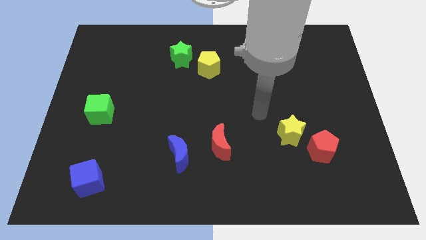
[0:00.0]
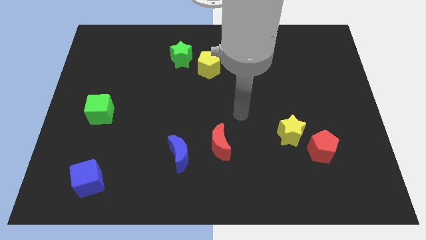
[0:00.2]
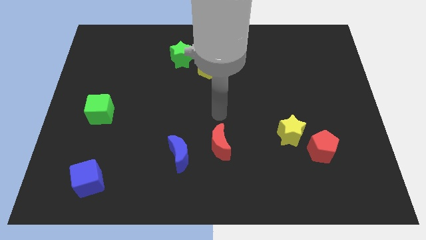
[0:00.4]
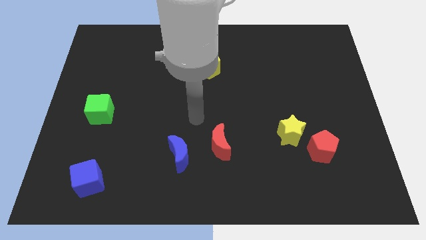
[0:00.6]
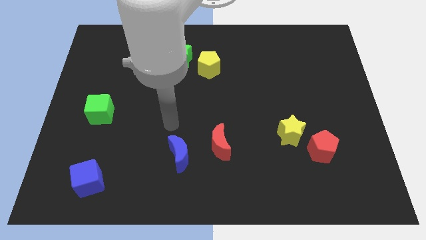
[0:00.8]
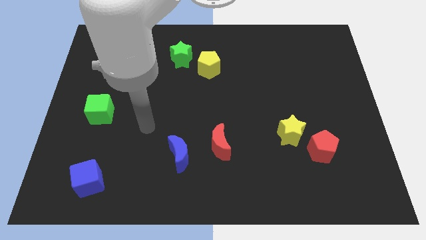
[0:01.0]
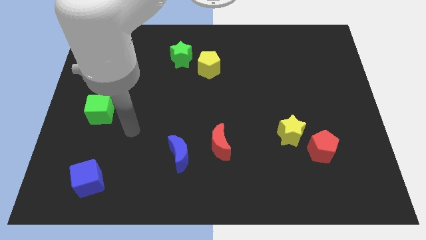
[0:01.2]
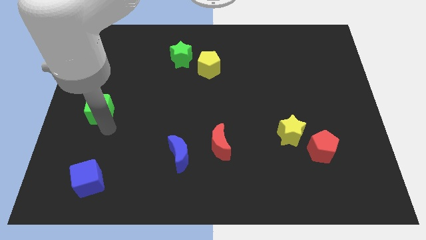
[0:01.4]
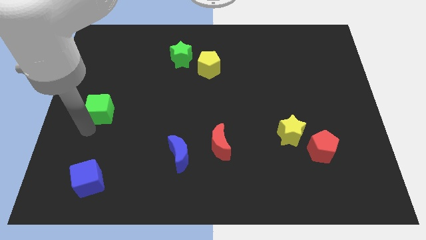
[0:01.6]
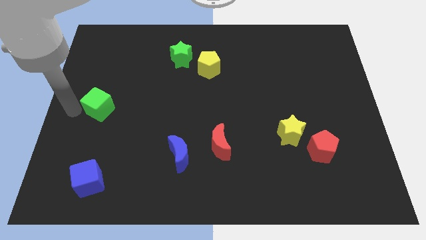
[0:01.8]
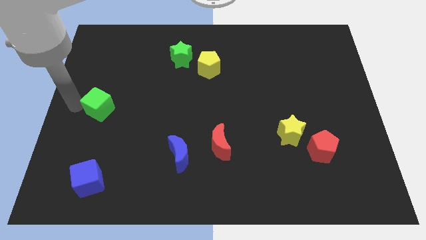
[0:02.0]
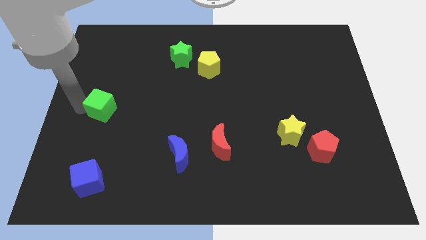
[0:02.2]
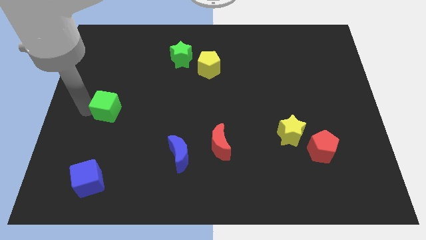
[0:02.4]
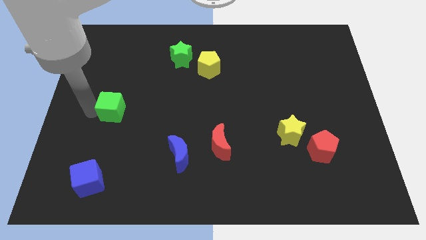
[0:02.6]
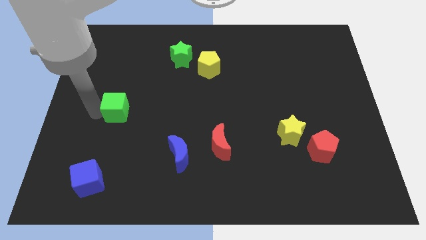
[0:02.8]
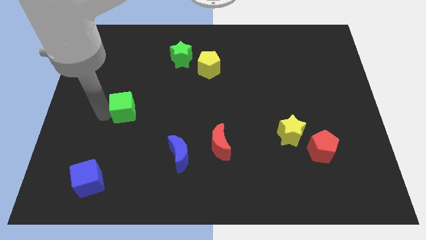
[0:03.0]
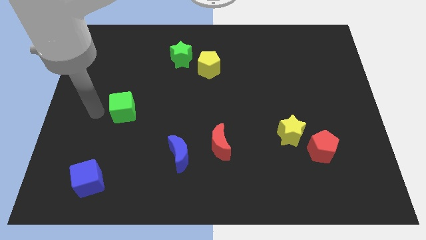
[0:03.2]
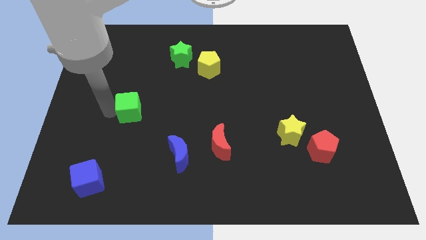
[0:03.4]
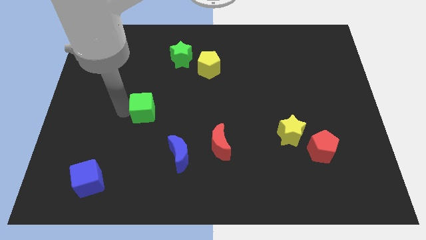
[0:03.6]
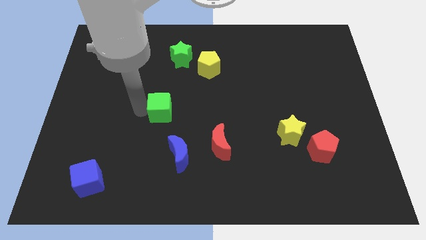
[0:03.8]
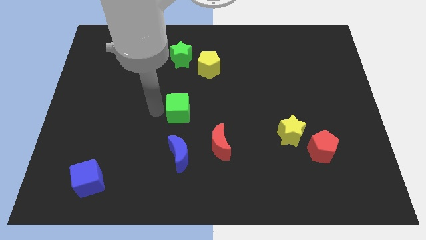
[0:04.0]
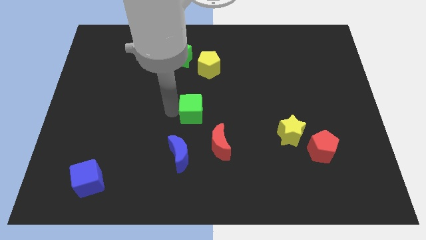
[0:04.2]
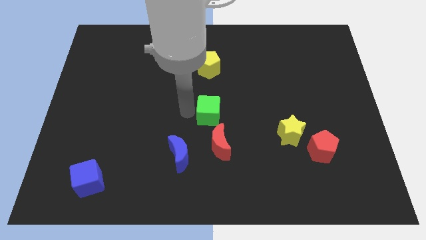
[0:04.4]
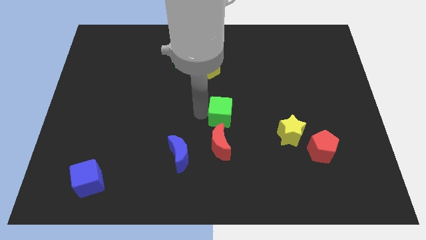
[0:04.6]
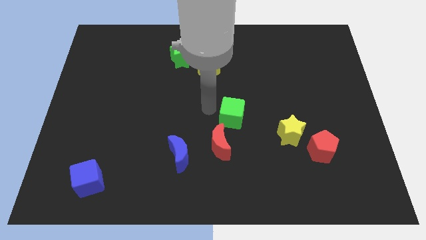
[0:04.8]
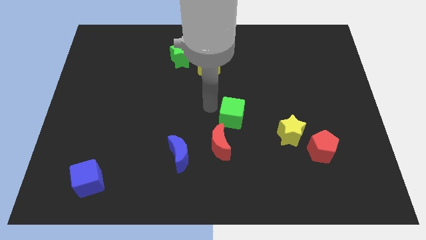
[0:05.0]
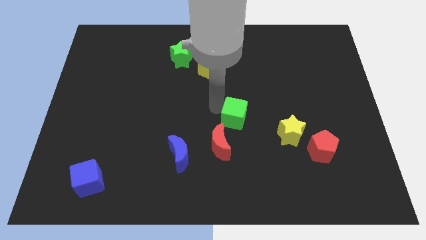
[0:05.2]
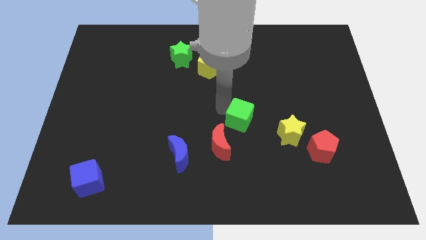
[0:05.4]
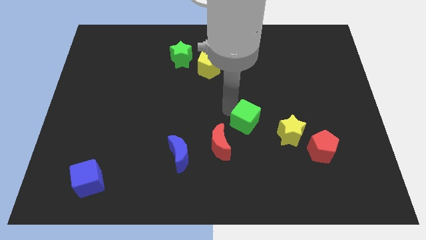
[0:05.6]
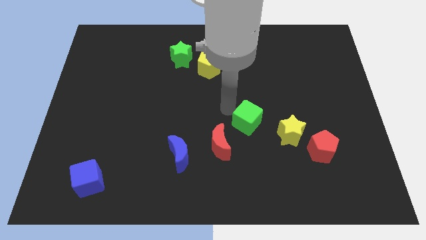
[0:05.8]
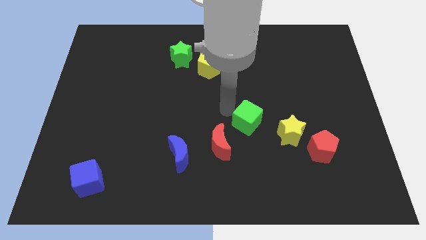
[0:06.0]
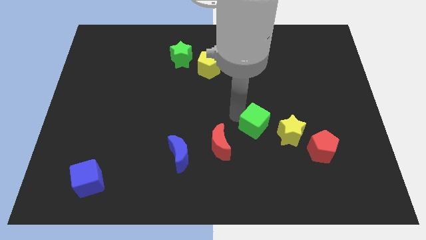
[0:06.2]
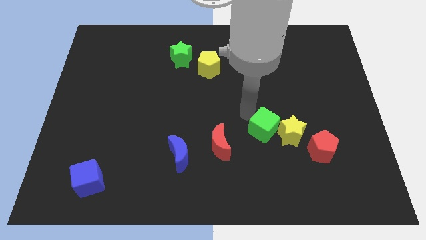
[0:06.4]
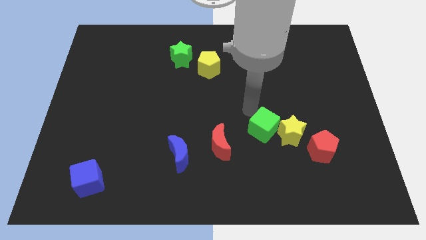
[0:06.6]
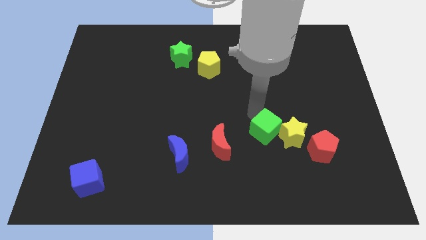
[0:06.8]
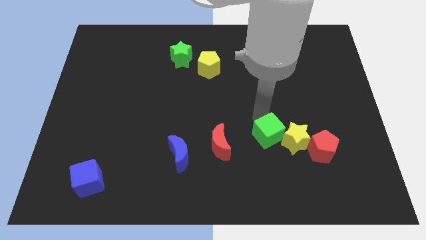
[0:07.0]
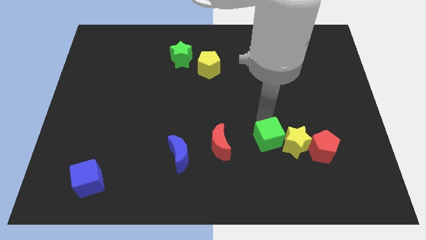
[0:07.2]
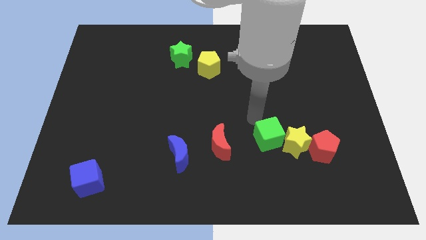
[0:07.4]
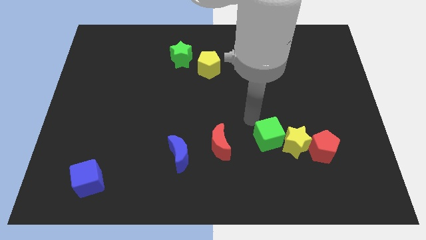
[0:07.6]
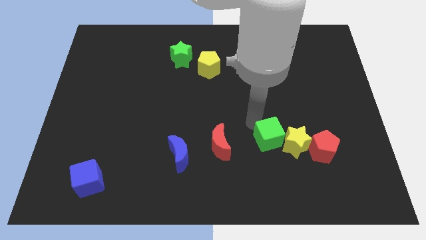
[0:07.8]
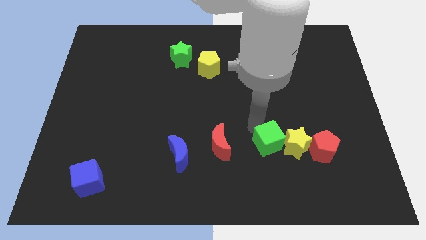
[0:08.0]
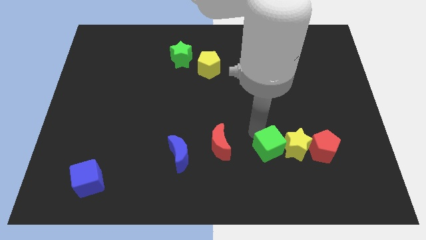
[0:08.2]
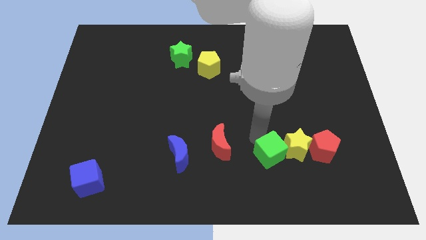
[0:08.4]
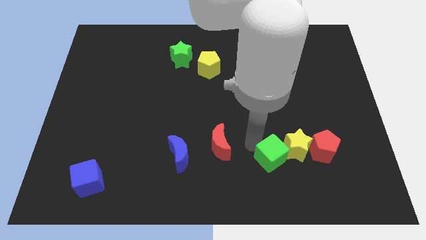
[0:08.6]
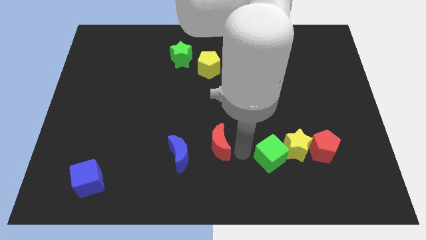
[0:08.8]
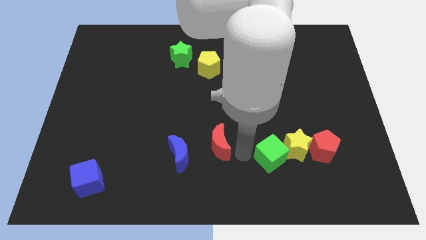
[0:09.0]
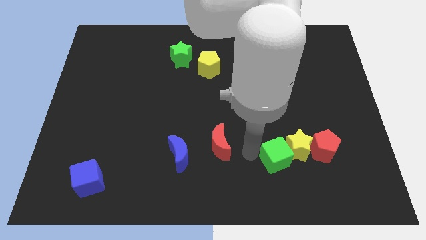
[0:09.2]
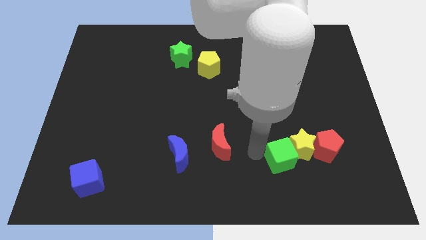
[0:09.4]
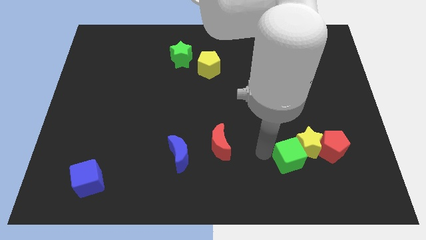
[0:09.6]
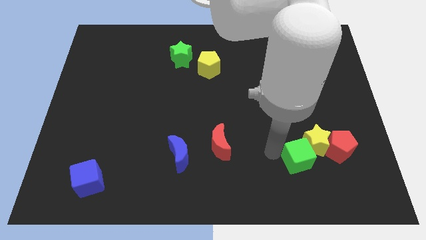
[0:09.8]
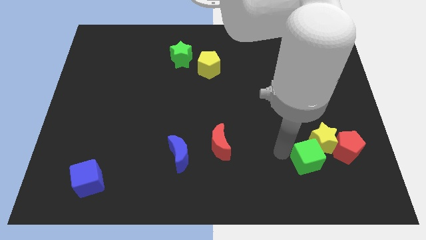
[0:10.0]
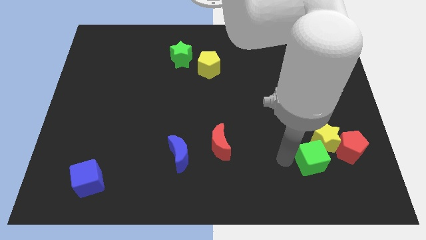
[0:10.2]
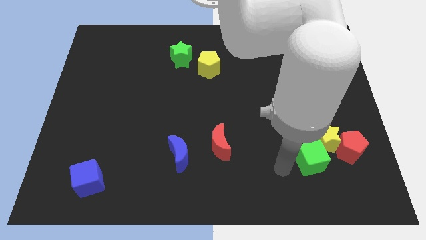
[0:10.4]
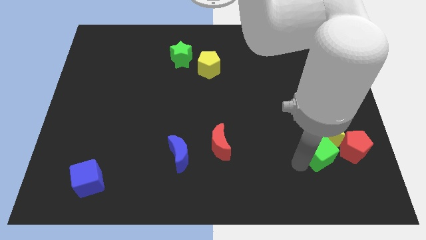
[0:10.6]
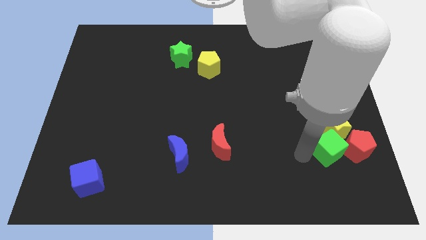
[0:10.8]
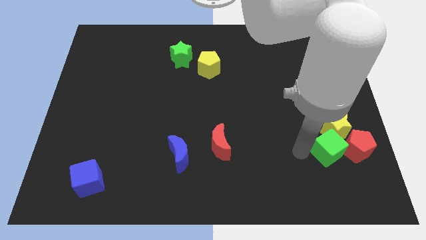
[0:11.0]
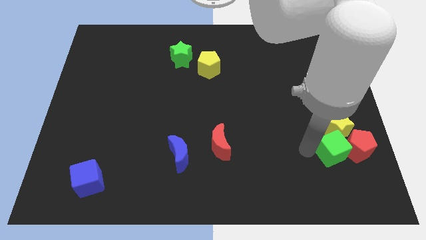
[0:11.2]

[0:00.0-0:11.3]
move the green cube close to the red pentagon

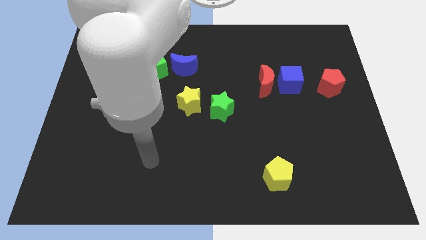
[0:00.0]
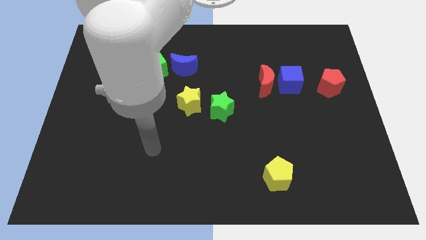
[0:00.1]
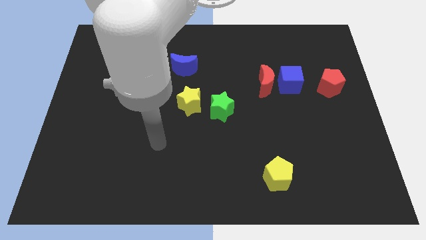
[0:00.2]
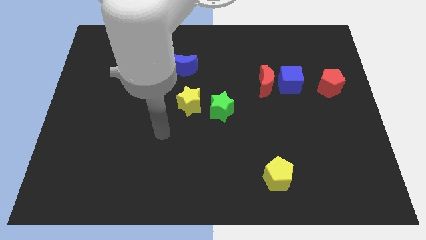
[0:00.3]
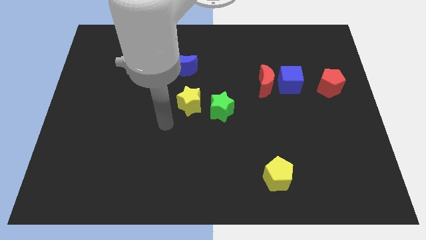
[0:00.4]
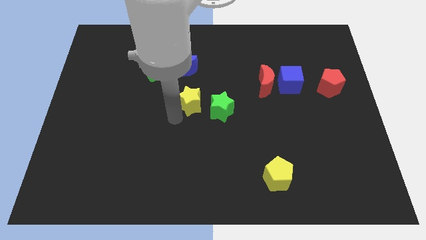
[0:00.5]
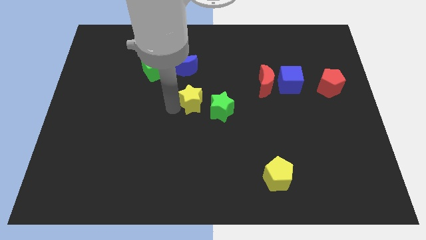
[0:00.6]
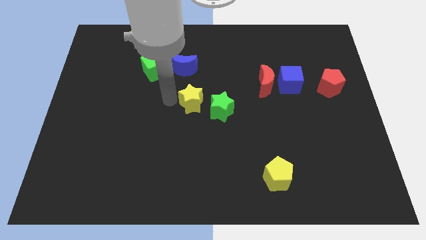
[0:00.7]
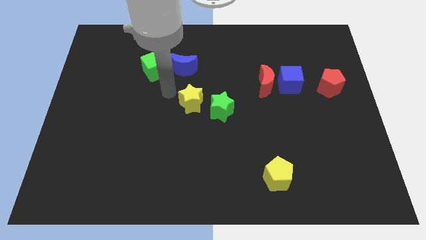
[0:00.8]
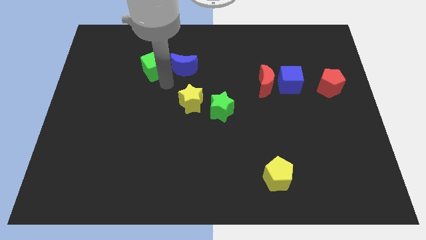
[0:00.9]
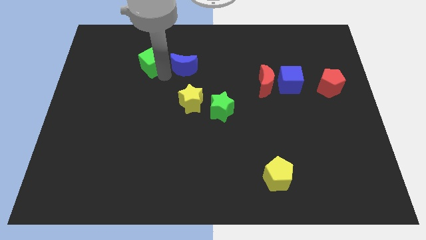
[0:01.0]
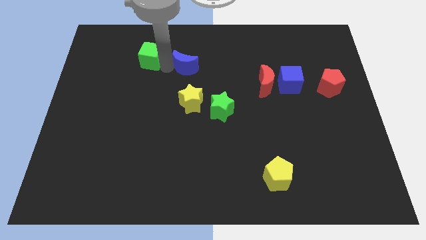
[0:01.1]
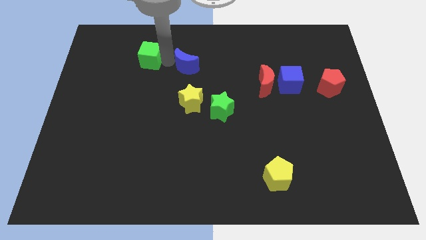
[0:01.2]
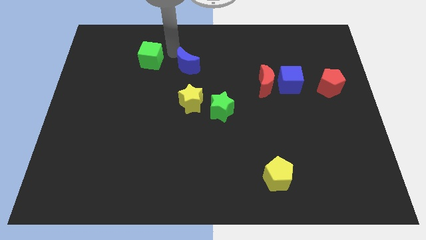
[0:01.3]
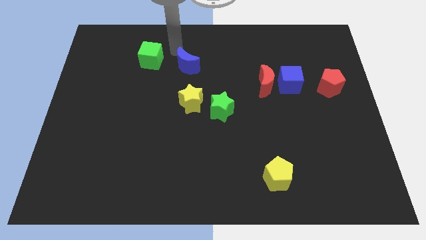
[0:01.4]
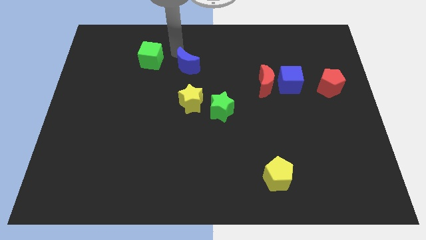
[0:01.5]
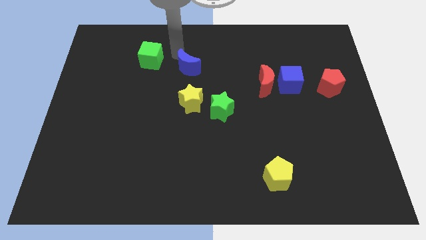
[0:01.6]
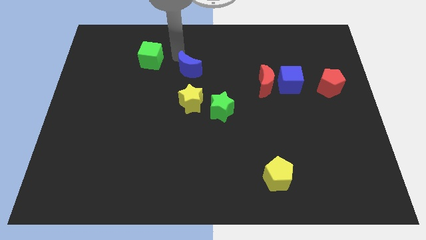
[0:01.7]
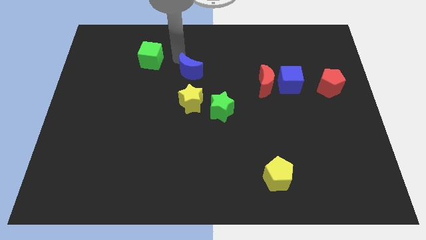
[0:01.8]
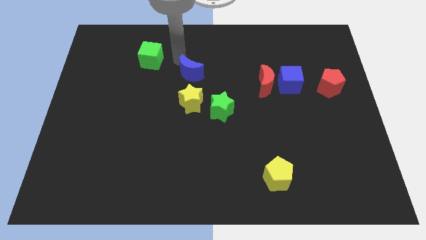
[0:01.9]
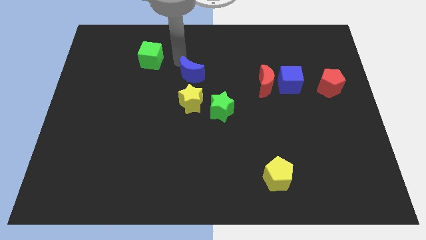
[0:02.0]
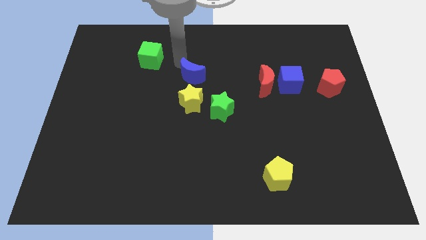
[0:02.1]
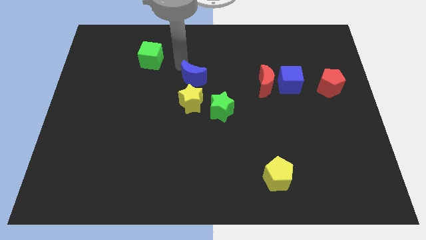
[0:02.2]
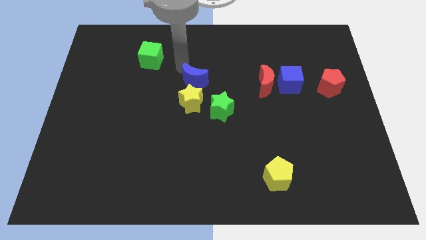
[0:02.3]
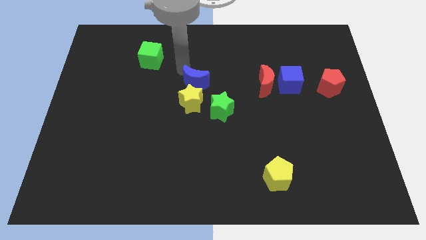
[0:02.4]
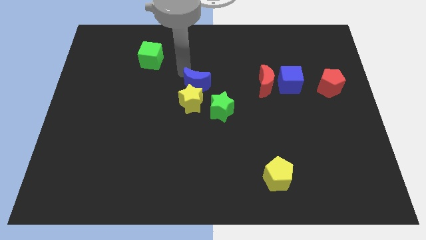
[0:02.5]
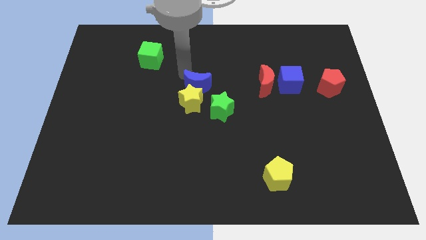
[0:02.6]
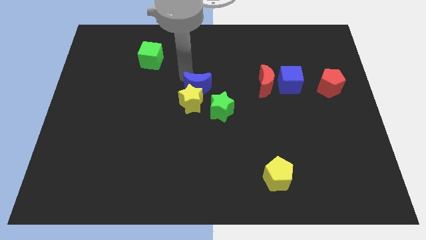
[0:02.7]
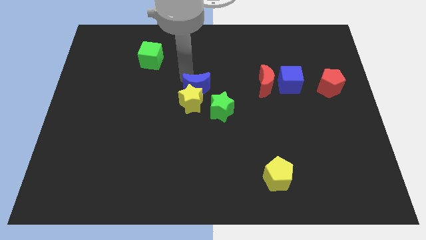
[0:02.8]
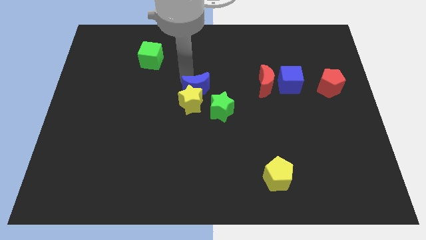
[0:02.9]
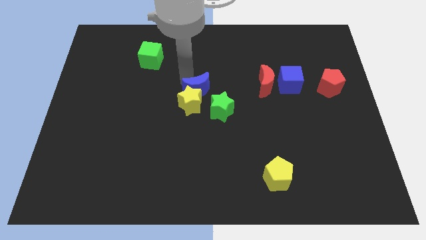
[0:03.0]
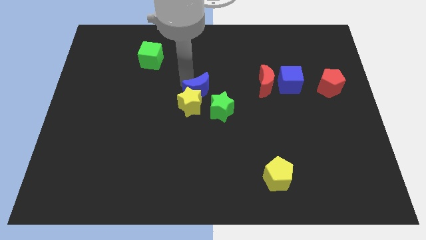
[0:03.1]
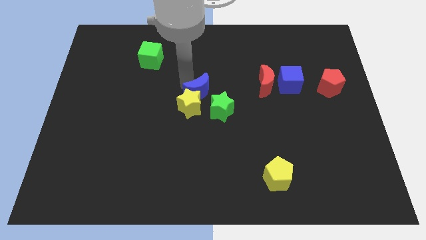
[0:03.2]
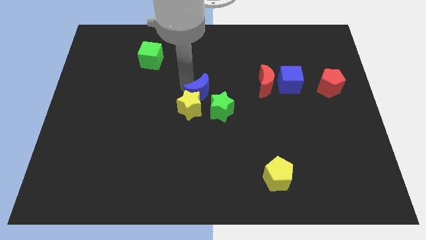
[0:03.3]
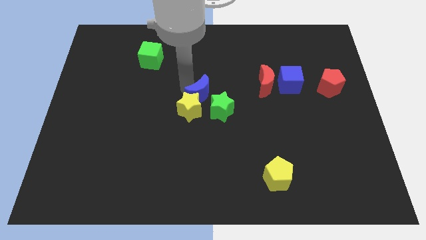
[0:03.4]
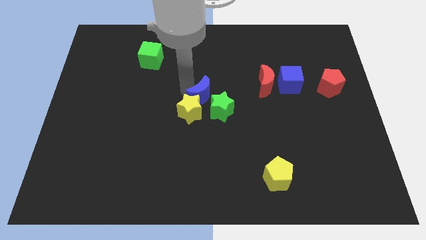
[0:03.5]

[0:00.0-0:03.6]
put the blue moon towards the green star
